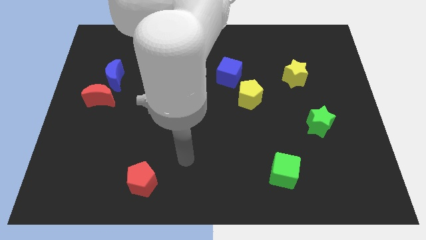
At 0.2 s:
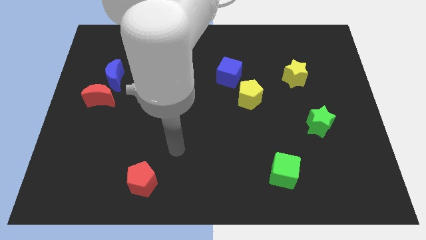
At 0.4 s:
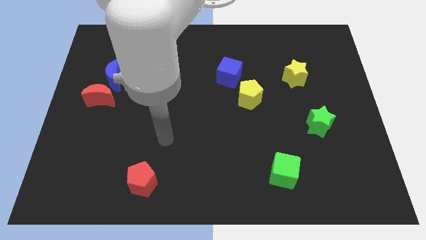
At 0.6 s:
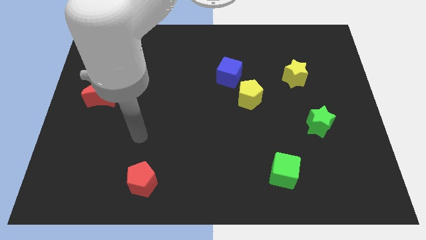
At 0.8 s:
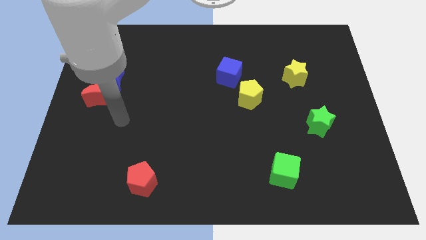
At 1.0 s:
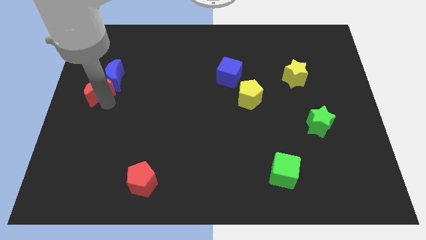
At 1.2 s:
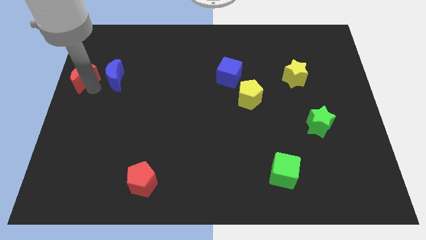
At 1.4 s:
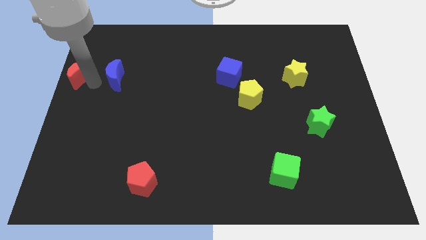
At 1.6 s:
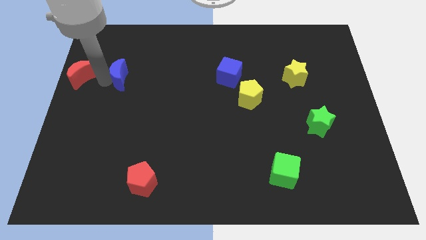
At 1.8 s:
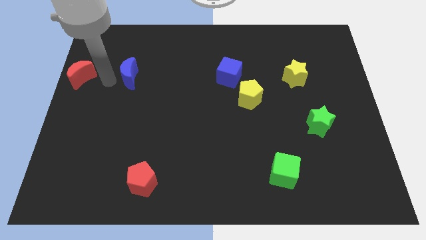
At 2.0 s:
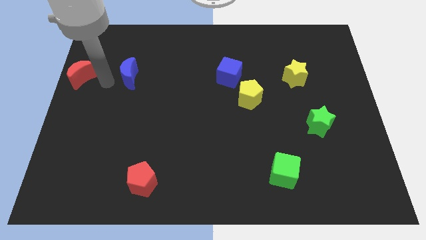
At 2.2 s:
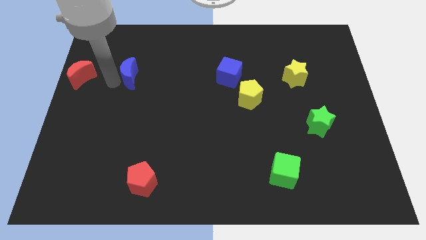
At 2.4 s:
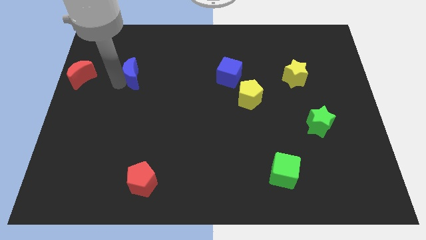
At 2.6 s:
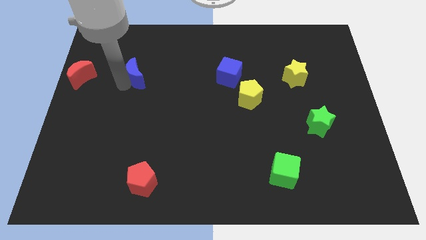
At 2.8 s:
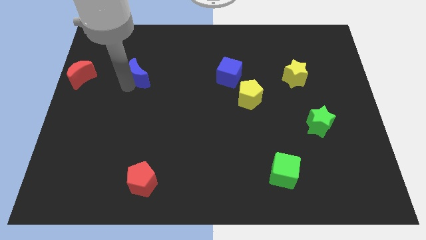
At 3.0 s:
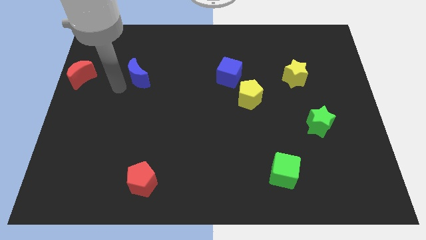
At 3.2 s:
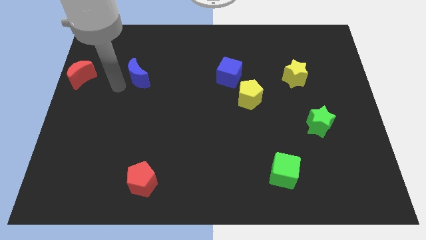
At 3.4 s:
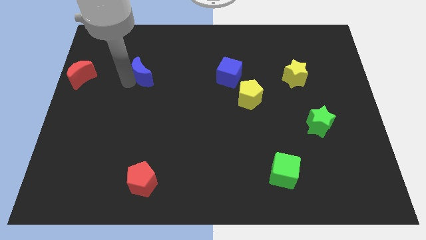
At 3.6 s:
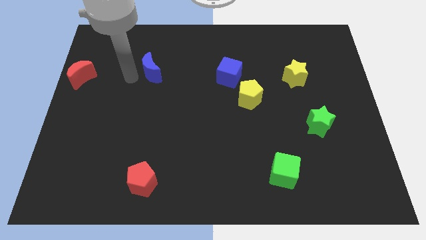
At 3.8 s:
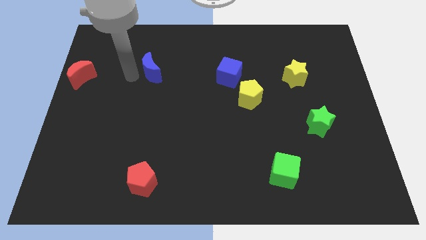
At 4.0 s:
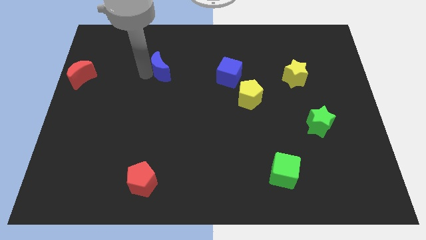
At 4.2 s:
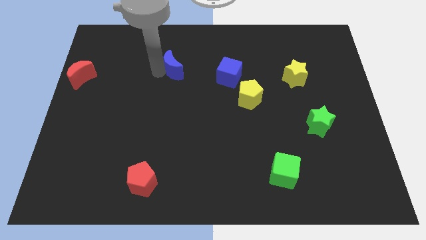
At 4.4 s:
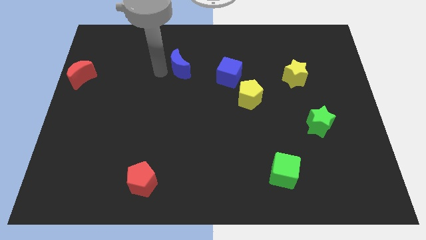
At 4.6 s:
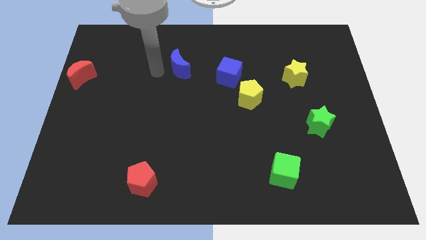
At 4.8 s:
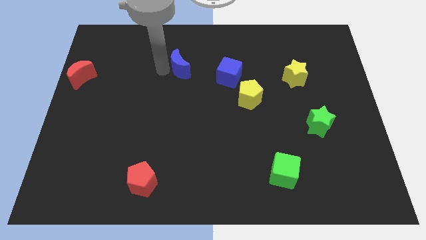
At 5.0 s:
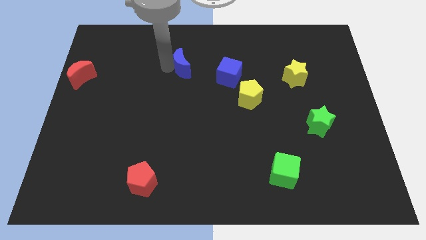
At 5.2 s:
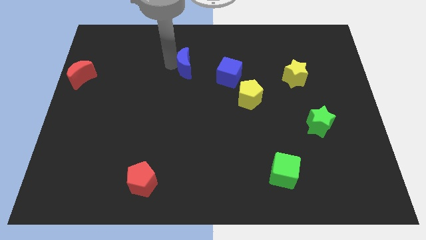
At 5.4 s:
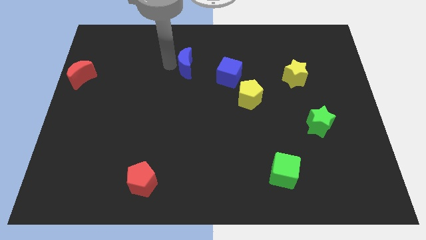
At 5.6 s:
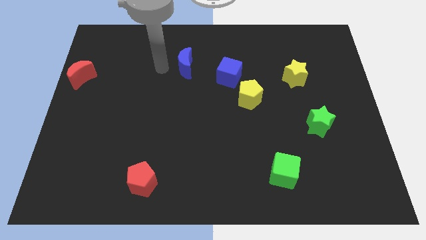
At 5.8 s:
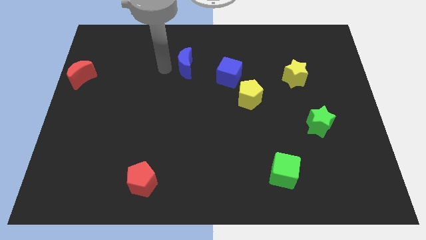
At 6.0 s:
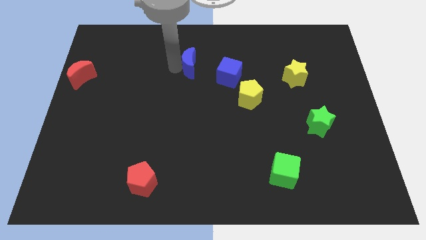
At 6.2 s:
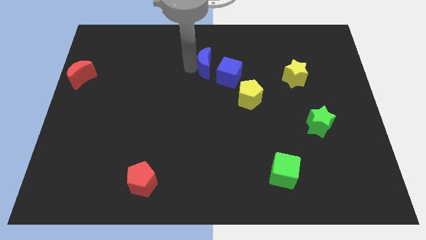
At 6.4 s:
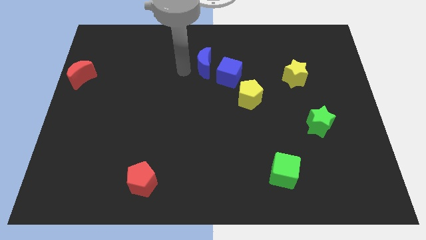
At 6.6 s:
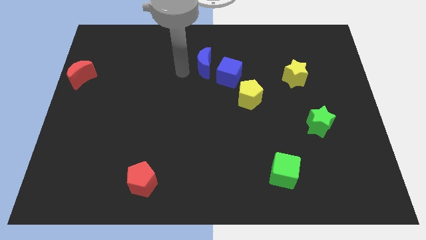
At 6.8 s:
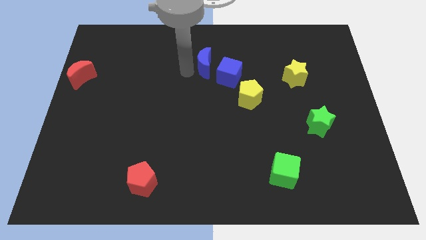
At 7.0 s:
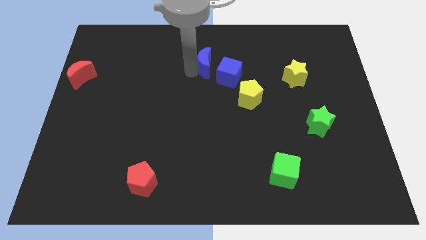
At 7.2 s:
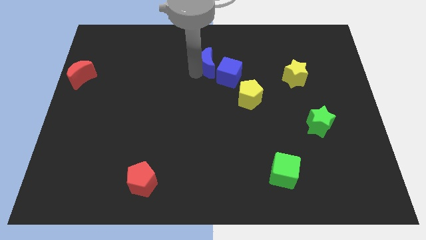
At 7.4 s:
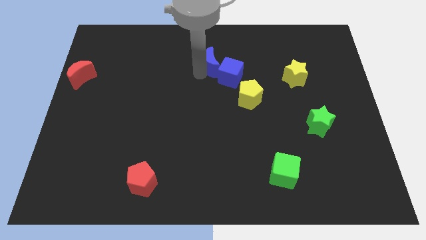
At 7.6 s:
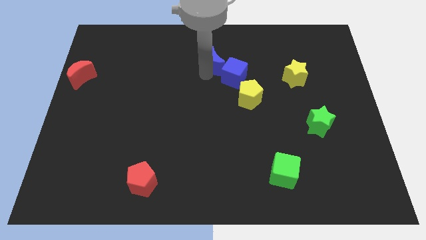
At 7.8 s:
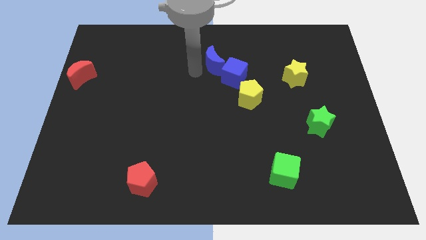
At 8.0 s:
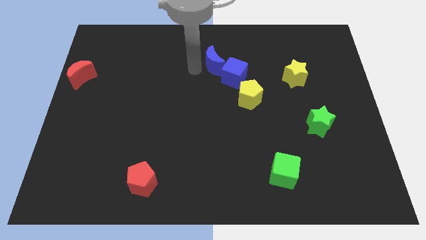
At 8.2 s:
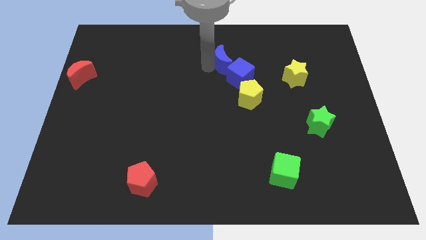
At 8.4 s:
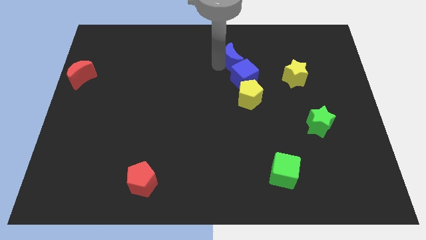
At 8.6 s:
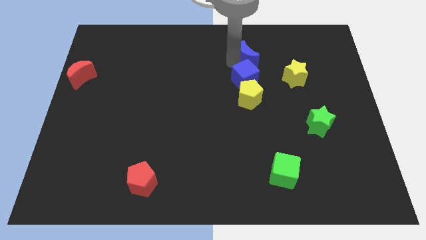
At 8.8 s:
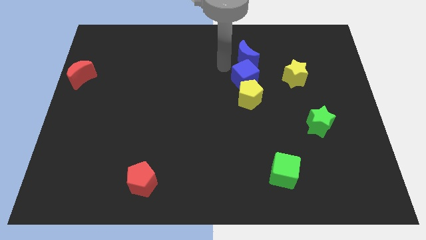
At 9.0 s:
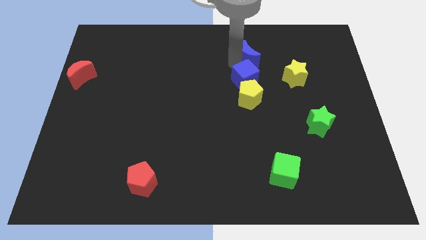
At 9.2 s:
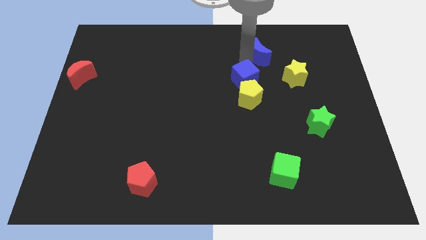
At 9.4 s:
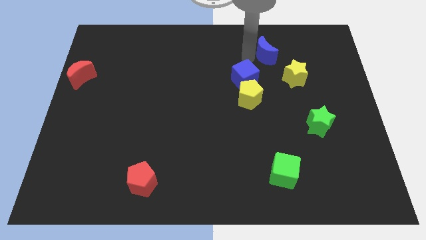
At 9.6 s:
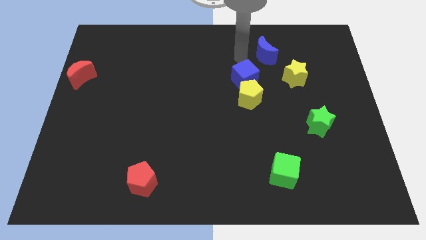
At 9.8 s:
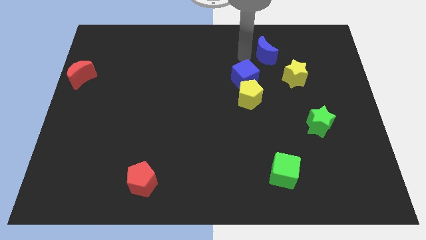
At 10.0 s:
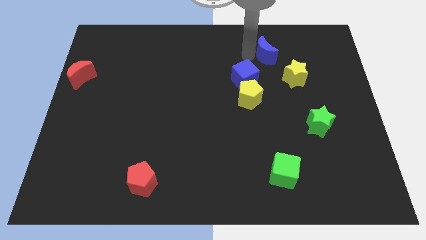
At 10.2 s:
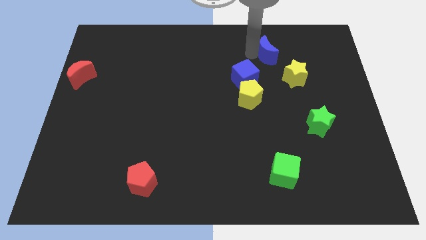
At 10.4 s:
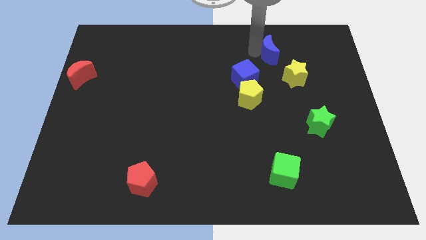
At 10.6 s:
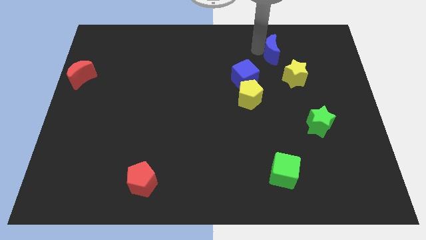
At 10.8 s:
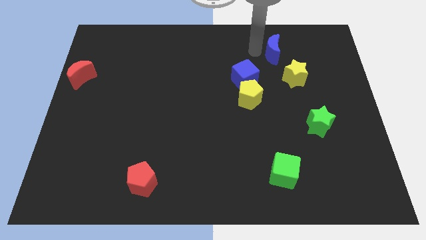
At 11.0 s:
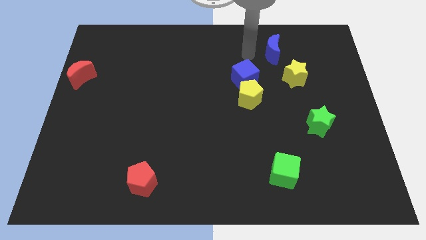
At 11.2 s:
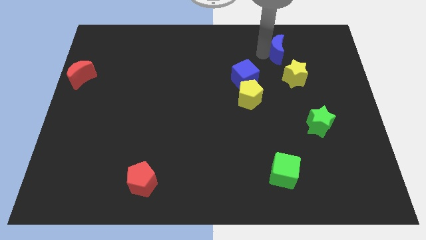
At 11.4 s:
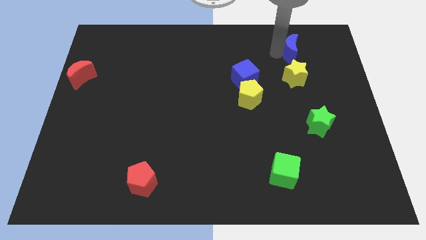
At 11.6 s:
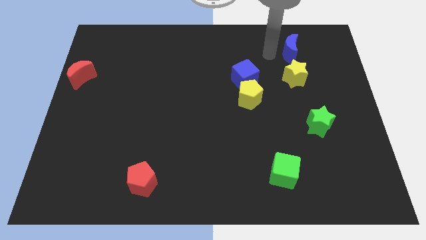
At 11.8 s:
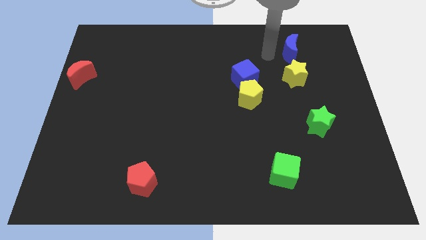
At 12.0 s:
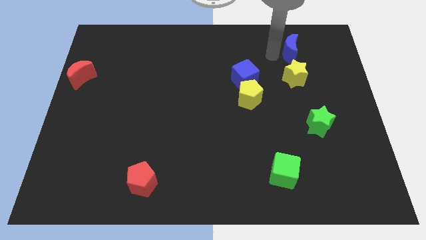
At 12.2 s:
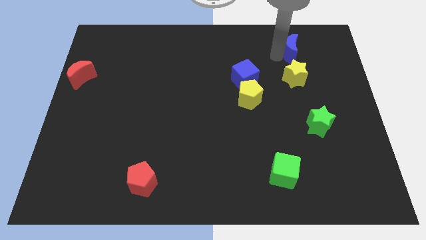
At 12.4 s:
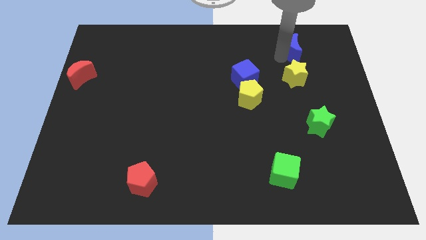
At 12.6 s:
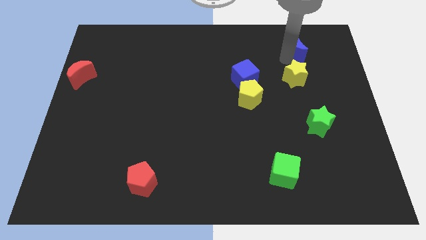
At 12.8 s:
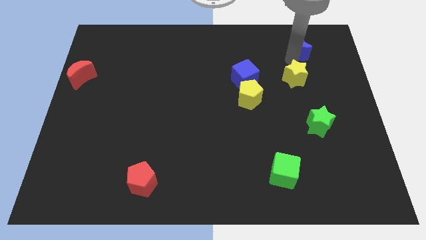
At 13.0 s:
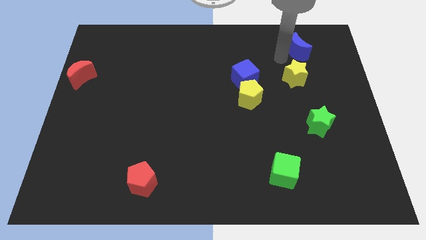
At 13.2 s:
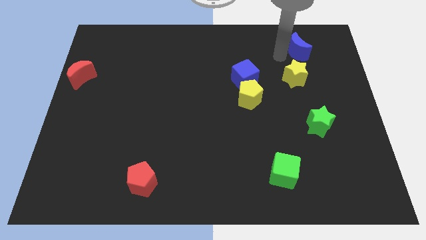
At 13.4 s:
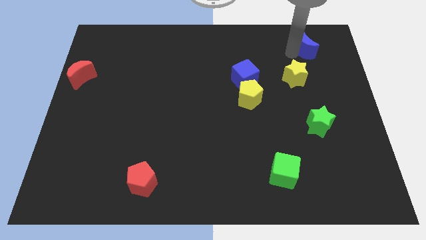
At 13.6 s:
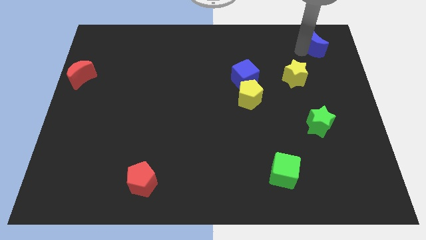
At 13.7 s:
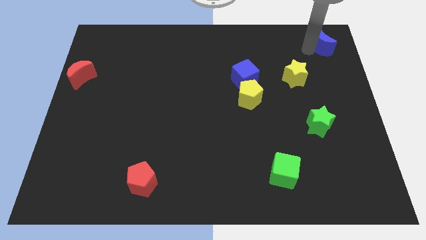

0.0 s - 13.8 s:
push the blue moon to the top right corner
